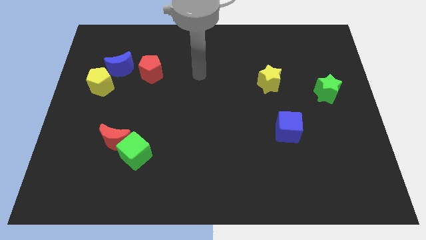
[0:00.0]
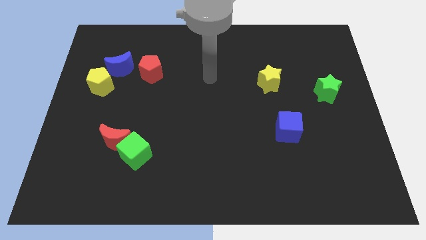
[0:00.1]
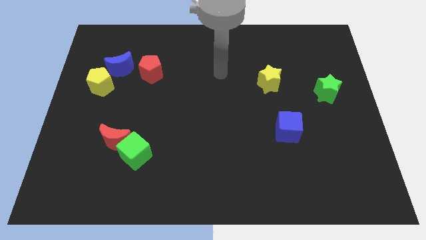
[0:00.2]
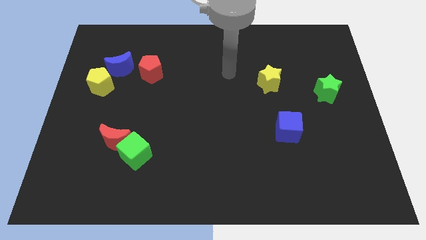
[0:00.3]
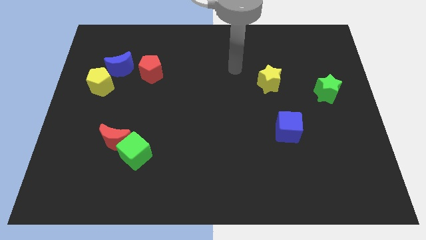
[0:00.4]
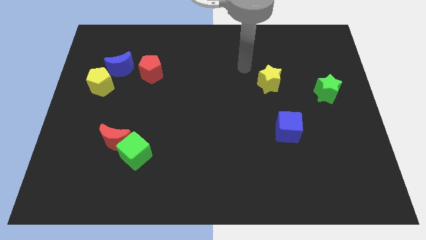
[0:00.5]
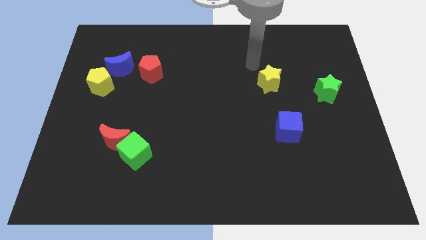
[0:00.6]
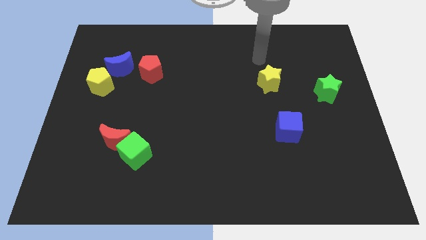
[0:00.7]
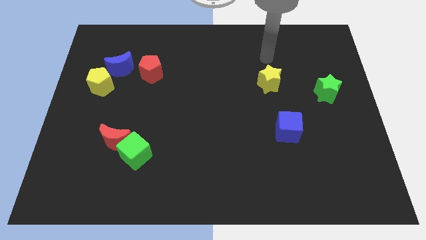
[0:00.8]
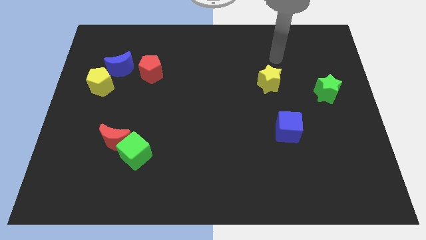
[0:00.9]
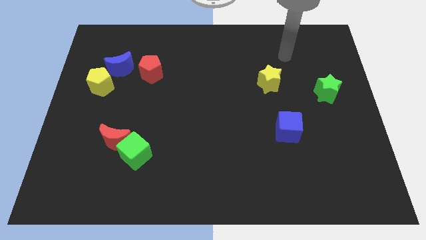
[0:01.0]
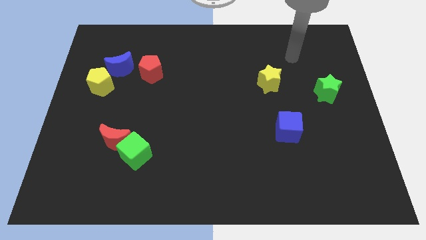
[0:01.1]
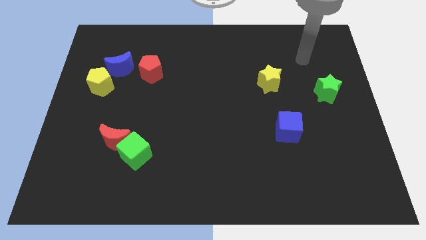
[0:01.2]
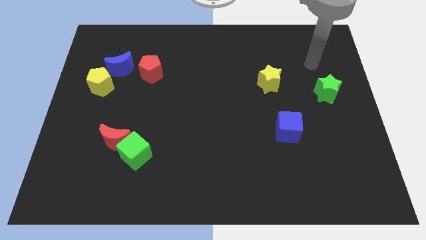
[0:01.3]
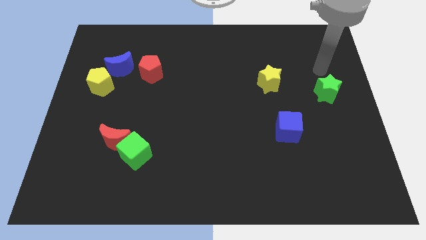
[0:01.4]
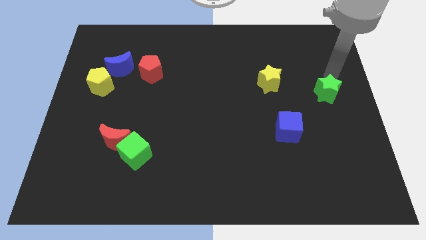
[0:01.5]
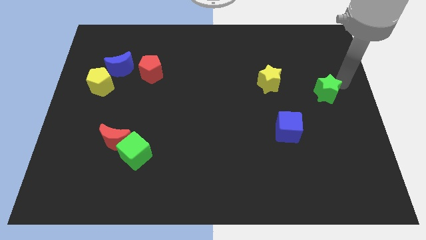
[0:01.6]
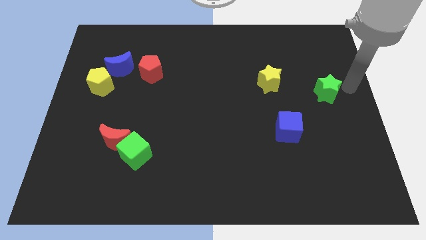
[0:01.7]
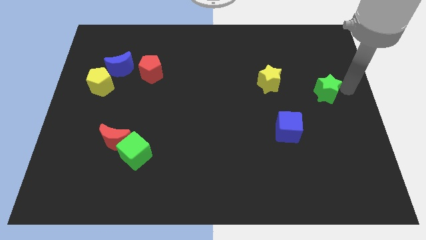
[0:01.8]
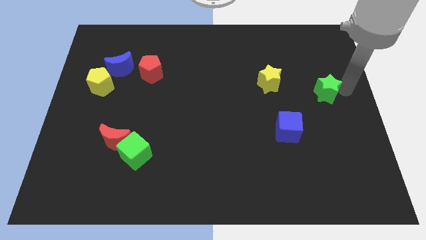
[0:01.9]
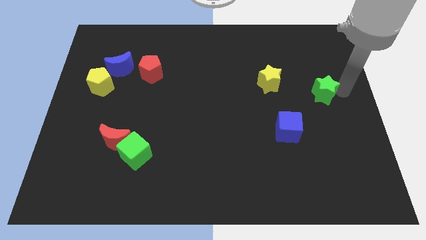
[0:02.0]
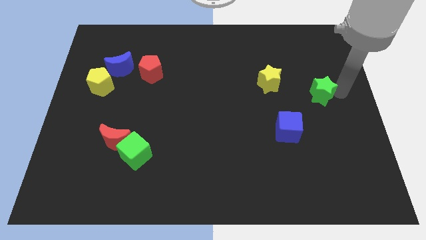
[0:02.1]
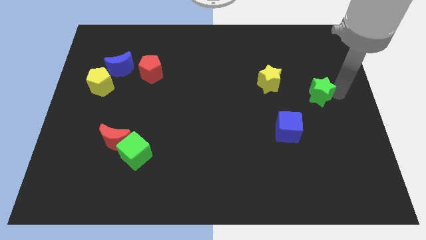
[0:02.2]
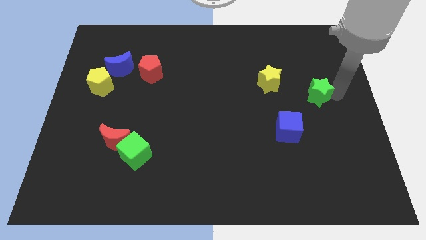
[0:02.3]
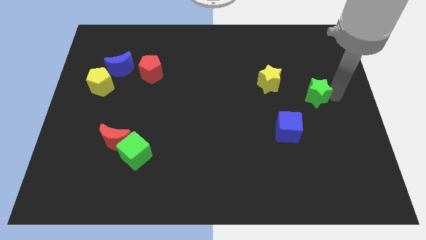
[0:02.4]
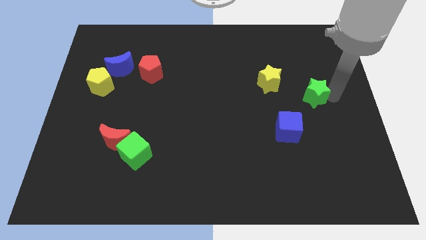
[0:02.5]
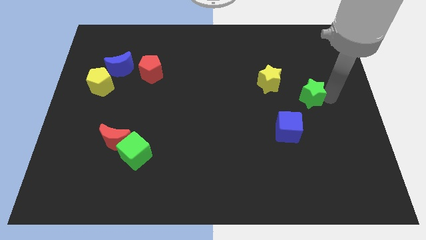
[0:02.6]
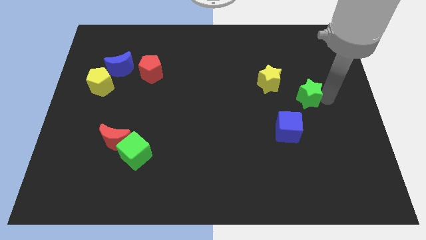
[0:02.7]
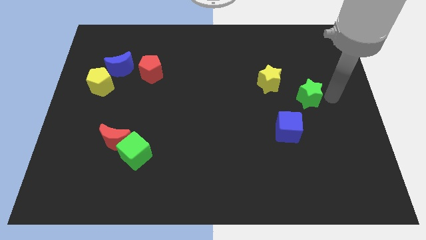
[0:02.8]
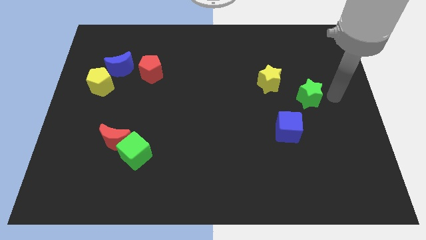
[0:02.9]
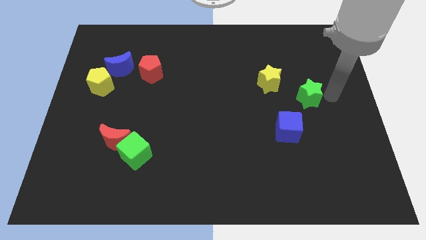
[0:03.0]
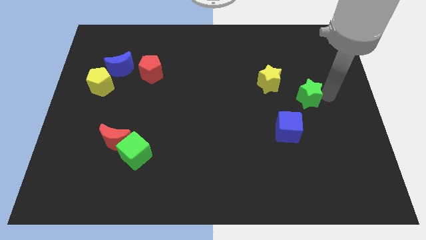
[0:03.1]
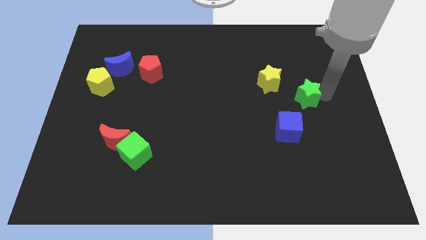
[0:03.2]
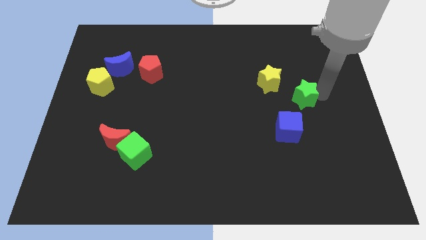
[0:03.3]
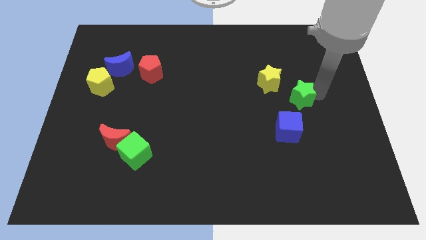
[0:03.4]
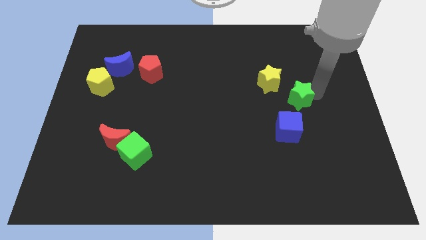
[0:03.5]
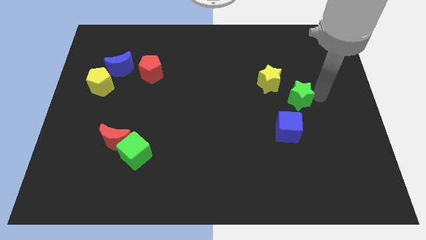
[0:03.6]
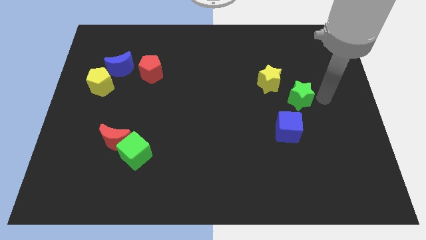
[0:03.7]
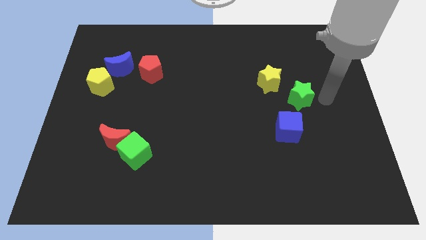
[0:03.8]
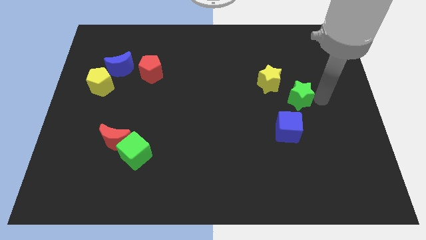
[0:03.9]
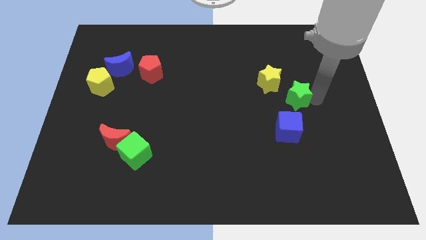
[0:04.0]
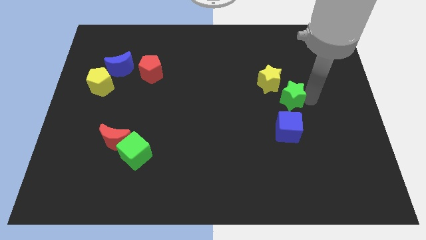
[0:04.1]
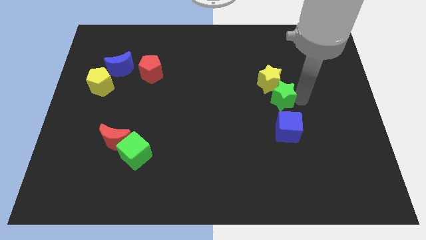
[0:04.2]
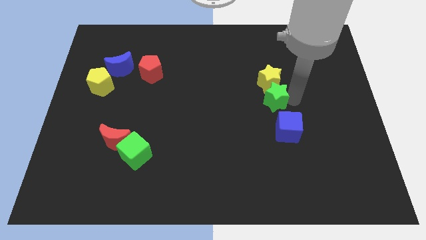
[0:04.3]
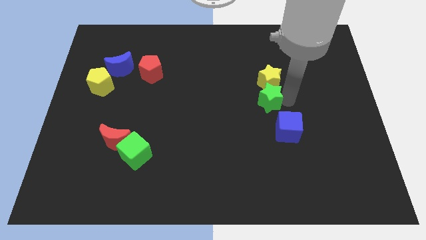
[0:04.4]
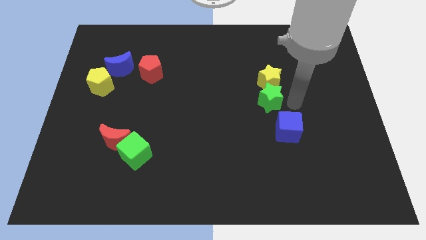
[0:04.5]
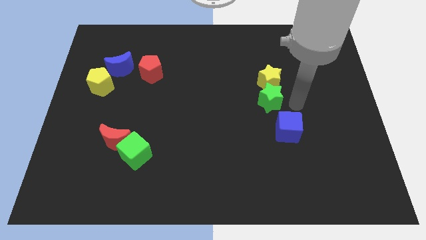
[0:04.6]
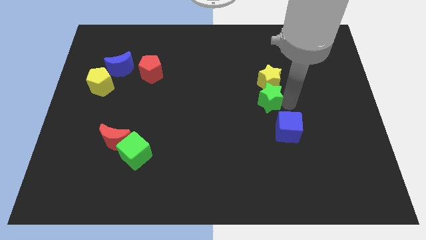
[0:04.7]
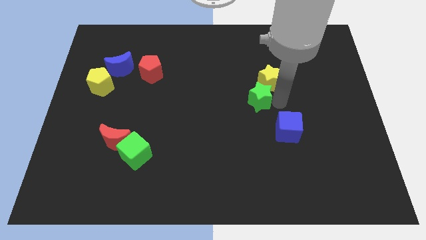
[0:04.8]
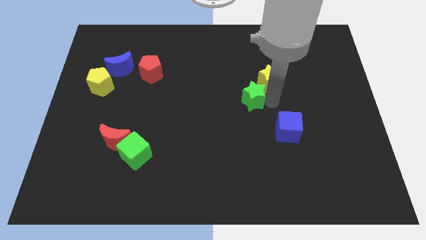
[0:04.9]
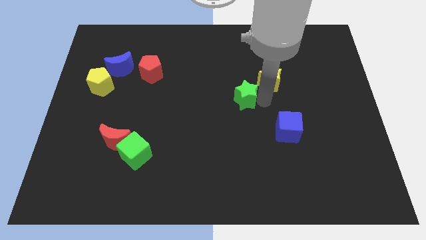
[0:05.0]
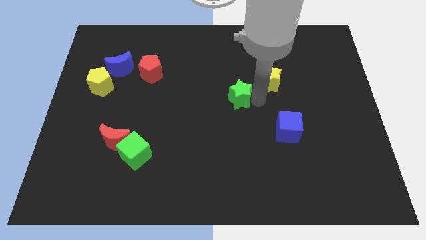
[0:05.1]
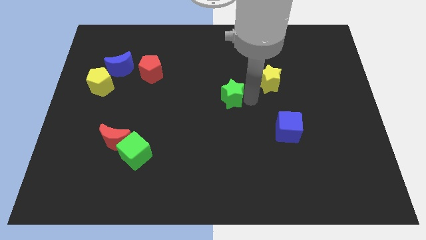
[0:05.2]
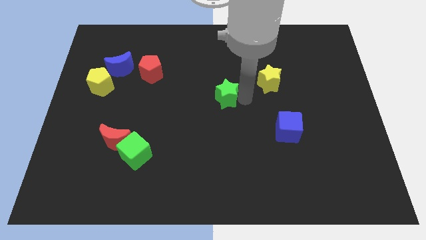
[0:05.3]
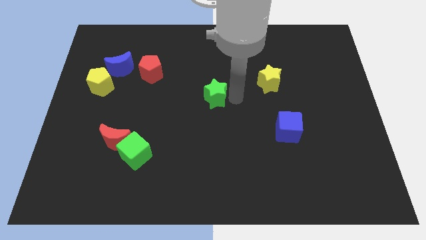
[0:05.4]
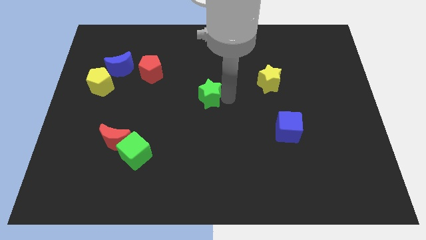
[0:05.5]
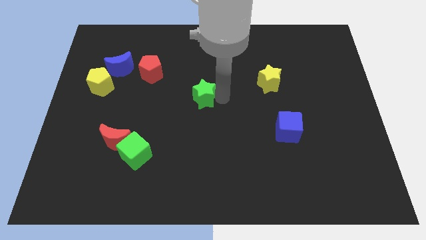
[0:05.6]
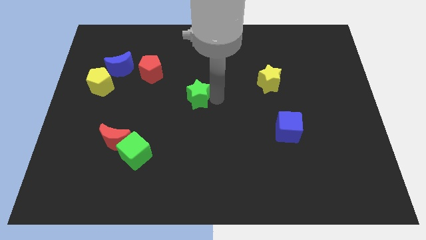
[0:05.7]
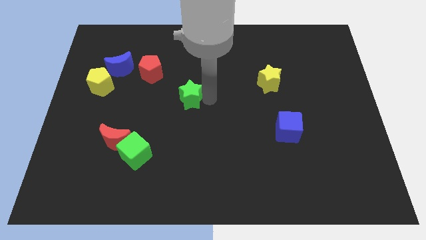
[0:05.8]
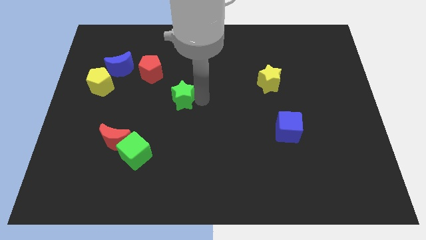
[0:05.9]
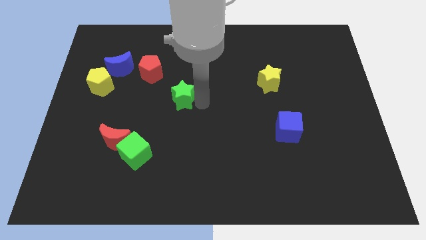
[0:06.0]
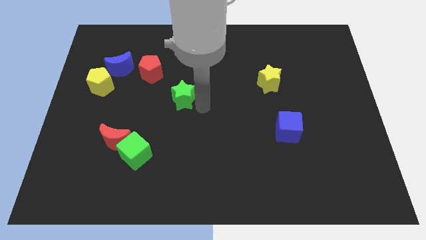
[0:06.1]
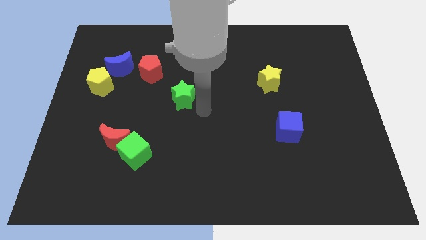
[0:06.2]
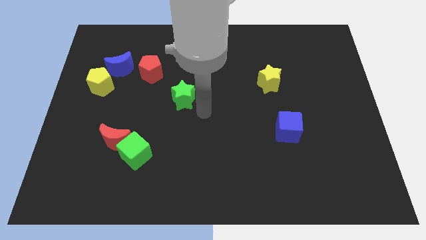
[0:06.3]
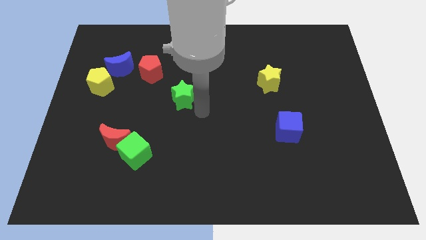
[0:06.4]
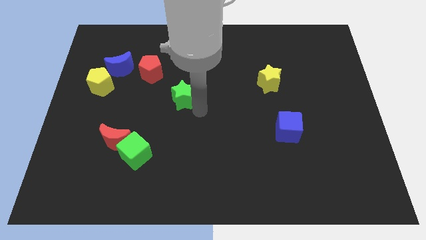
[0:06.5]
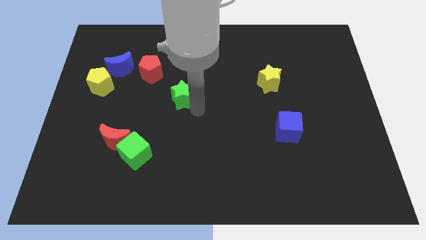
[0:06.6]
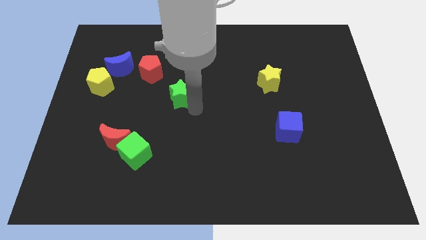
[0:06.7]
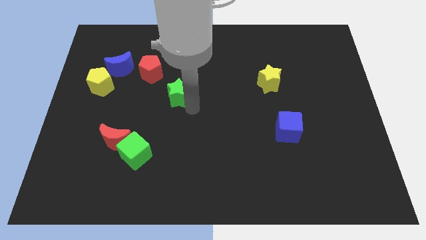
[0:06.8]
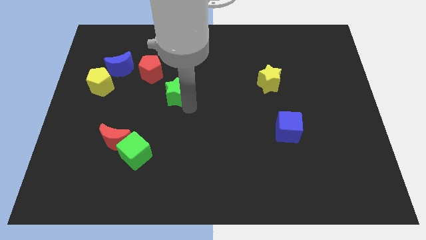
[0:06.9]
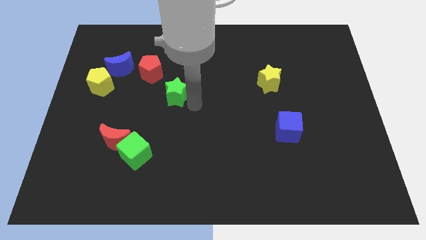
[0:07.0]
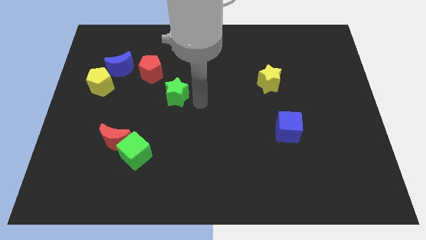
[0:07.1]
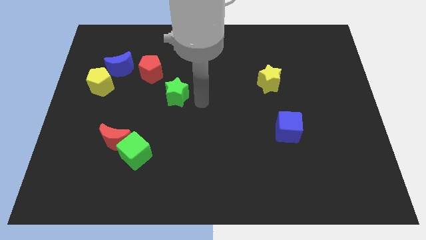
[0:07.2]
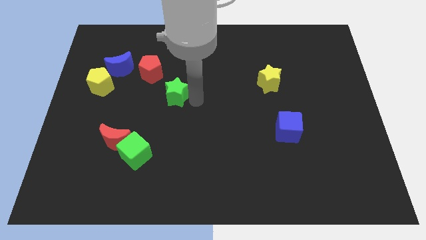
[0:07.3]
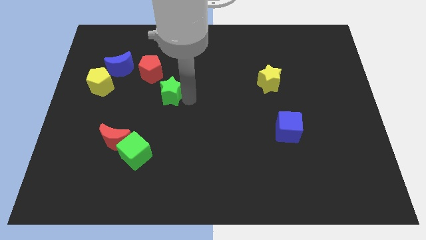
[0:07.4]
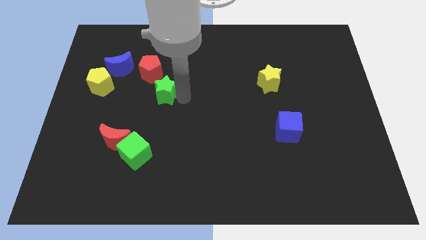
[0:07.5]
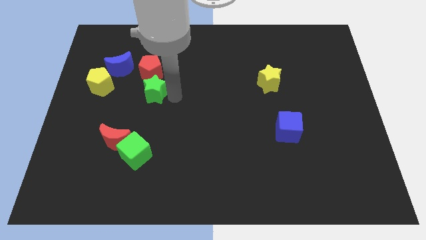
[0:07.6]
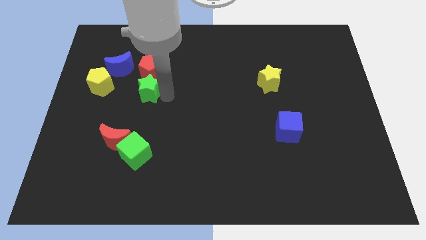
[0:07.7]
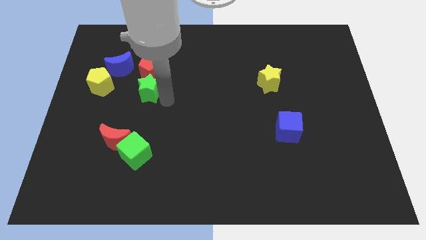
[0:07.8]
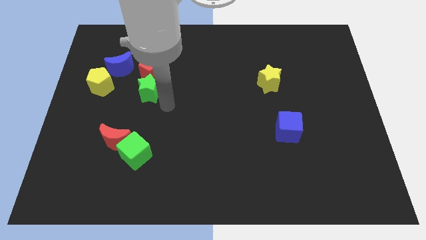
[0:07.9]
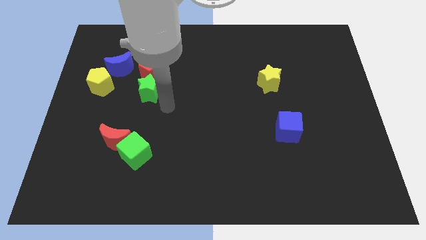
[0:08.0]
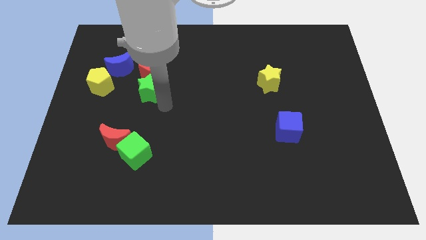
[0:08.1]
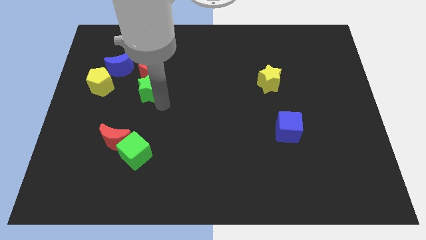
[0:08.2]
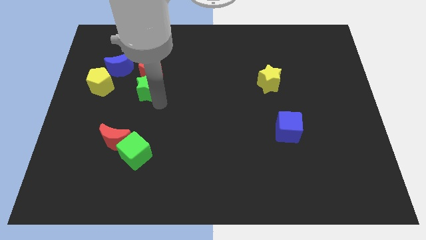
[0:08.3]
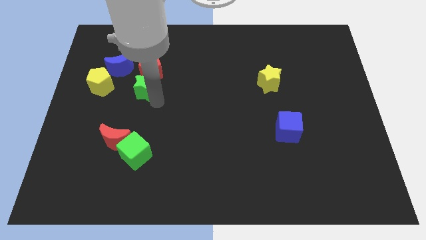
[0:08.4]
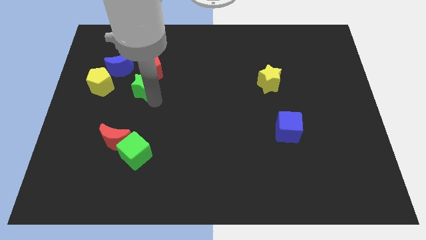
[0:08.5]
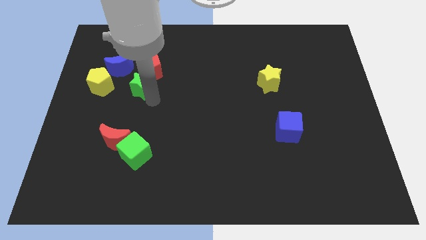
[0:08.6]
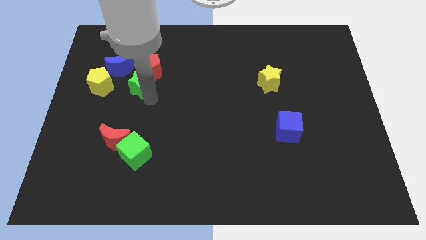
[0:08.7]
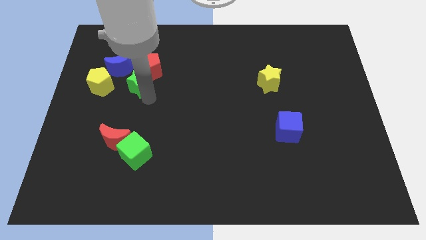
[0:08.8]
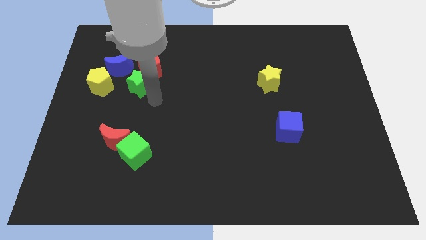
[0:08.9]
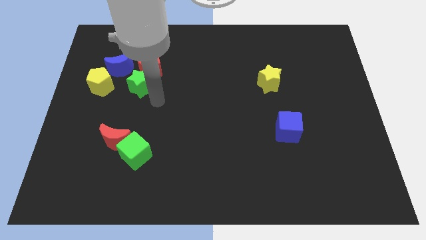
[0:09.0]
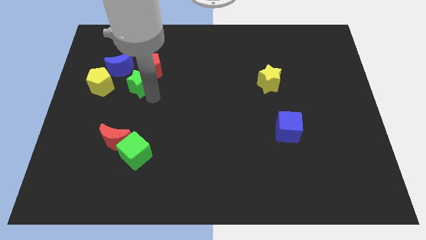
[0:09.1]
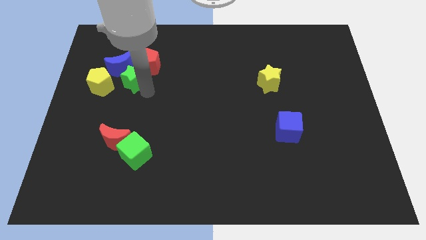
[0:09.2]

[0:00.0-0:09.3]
push the green star next to the blue moon
